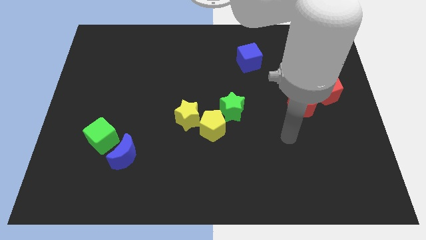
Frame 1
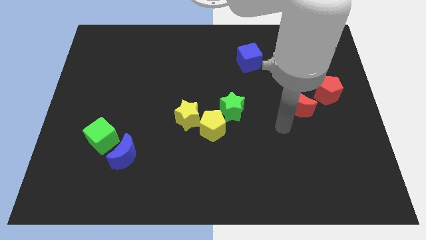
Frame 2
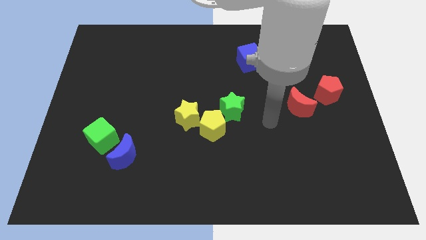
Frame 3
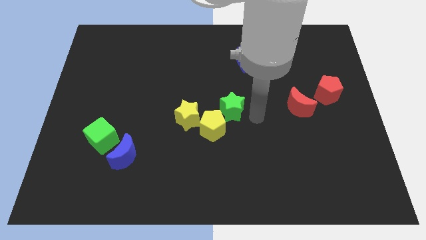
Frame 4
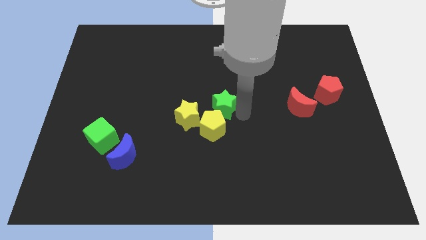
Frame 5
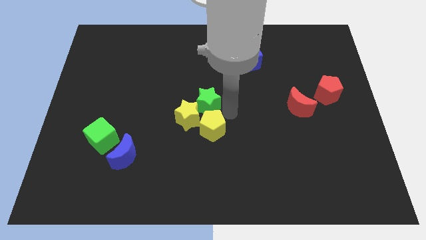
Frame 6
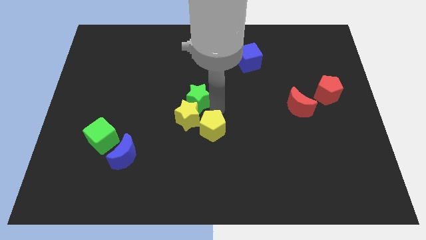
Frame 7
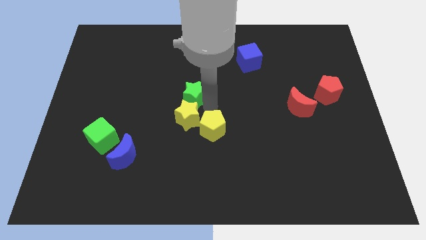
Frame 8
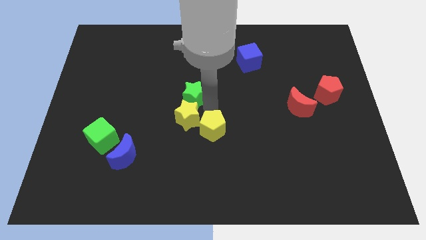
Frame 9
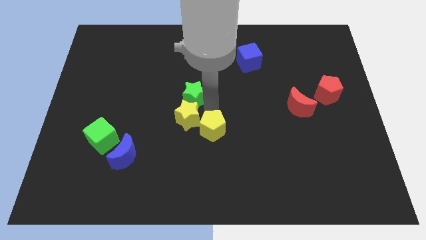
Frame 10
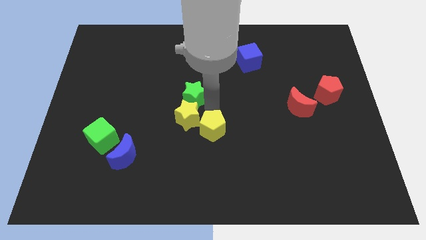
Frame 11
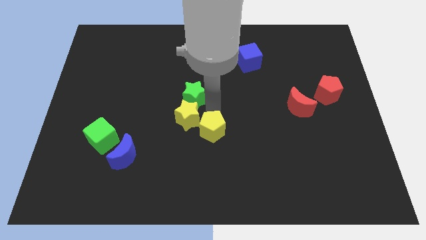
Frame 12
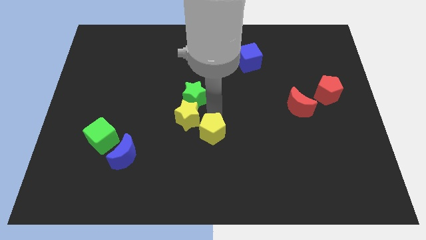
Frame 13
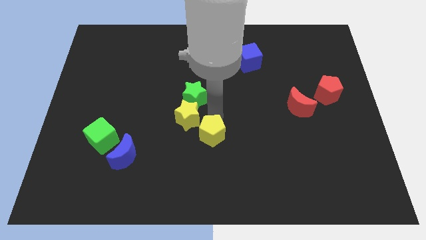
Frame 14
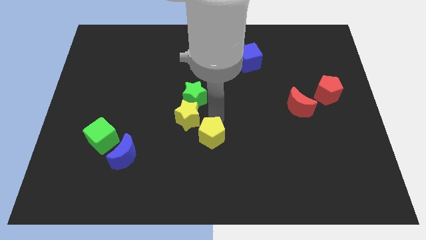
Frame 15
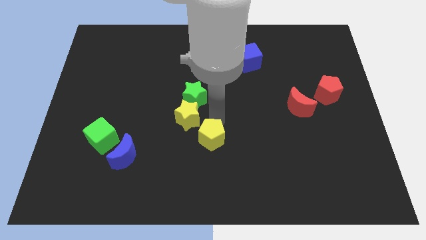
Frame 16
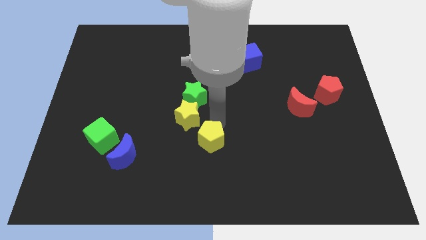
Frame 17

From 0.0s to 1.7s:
move the yellow pentagon away from the yellow star and green star

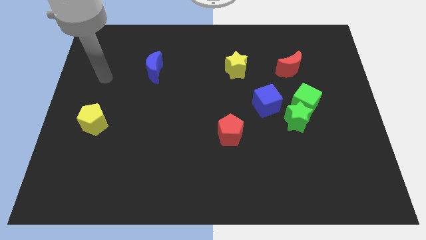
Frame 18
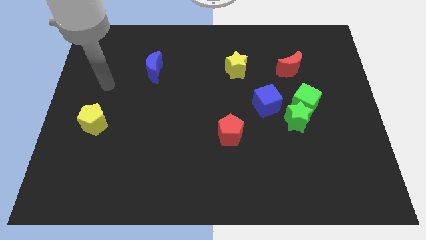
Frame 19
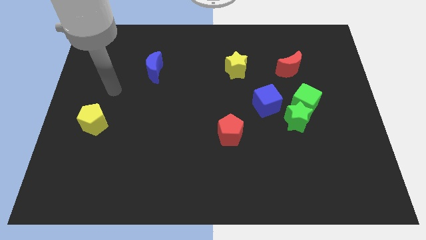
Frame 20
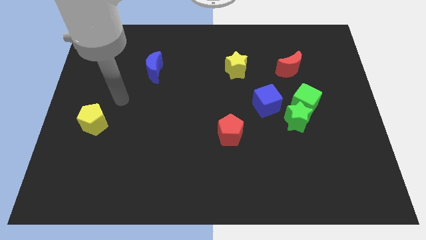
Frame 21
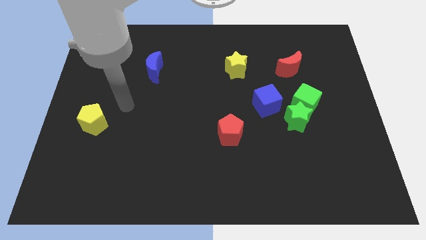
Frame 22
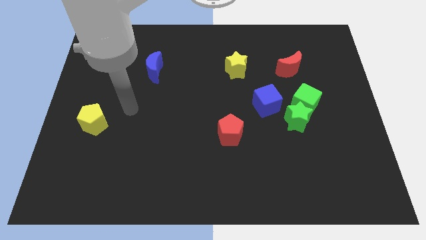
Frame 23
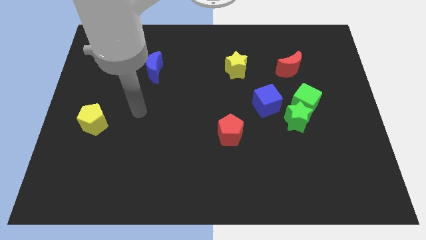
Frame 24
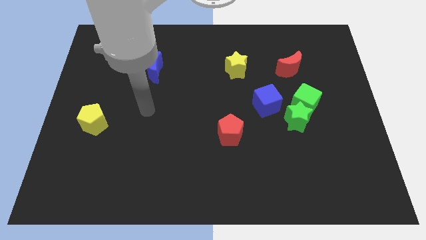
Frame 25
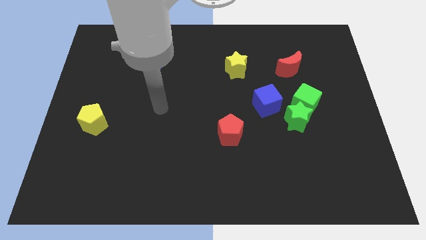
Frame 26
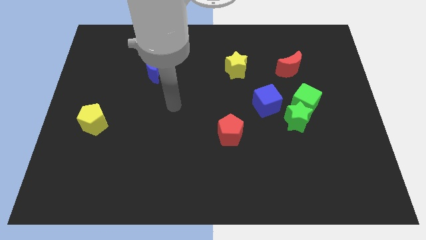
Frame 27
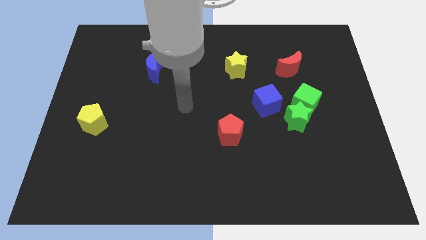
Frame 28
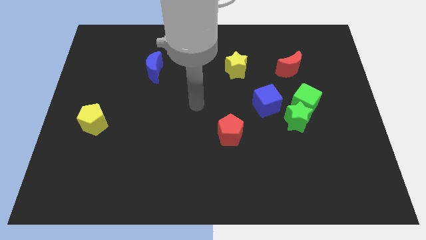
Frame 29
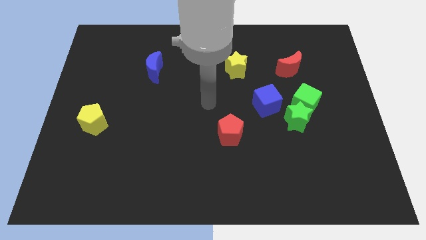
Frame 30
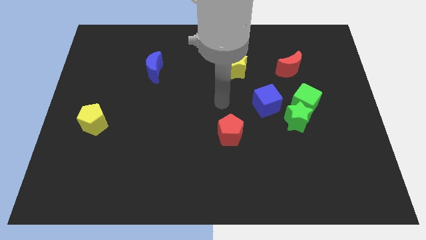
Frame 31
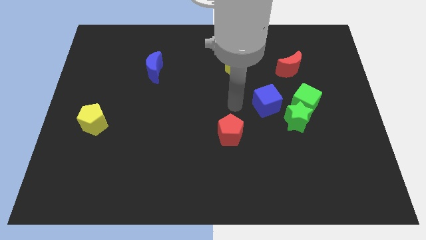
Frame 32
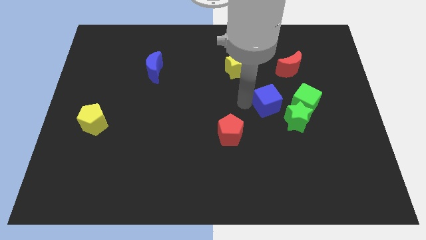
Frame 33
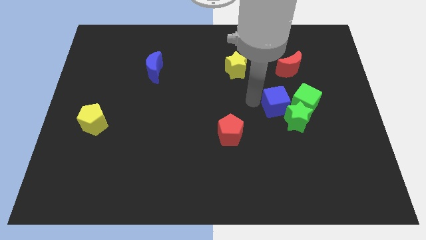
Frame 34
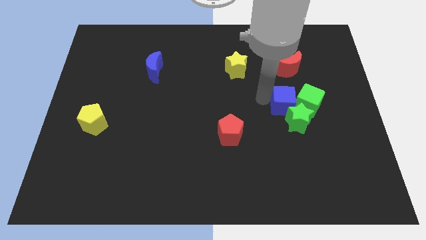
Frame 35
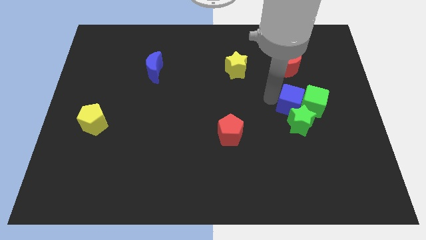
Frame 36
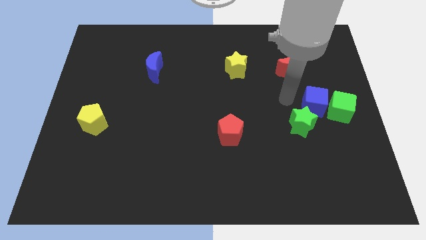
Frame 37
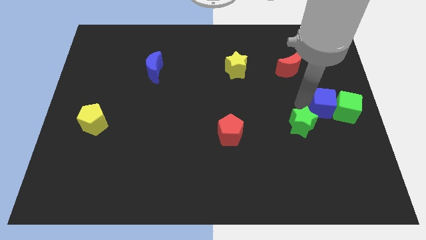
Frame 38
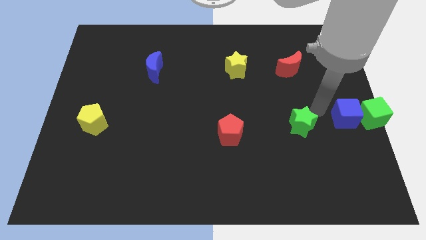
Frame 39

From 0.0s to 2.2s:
pull the green star apart from the green cube and blue cube

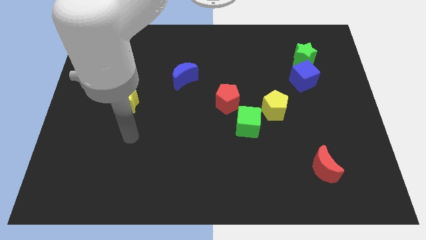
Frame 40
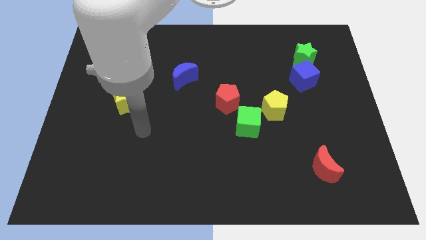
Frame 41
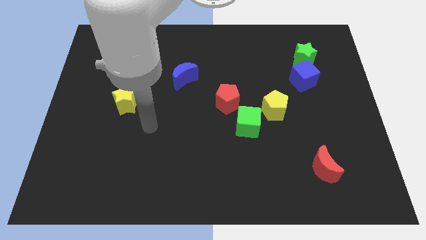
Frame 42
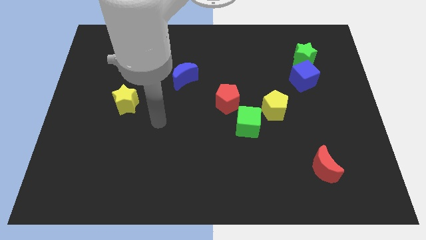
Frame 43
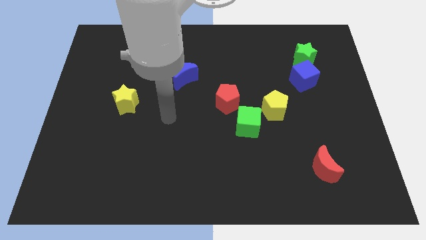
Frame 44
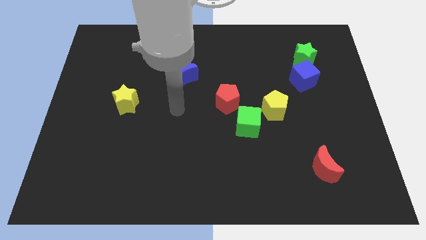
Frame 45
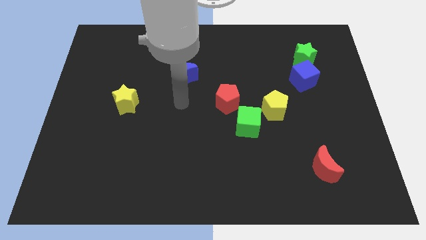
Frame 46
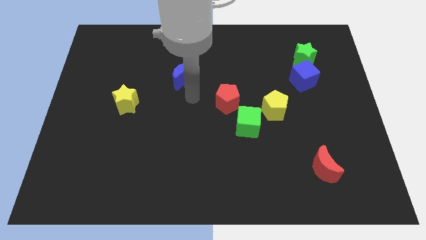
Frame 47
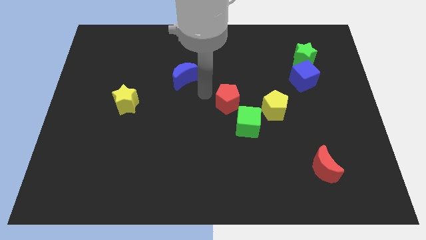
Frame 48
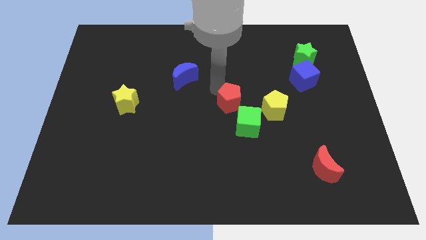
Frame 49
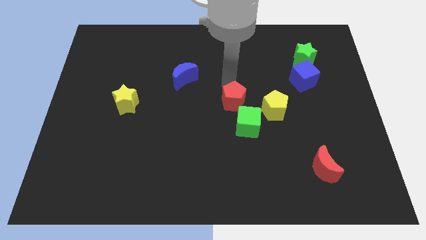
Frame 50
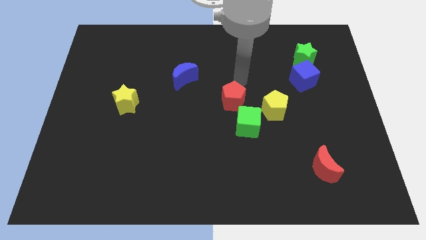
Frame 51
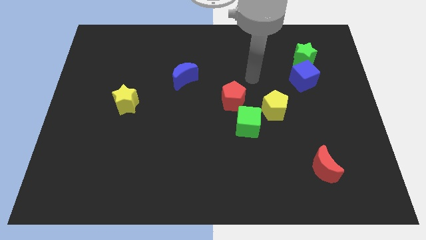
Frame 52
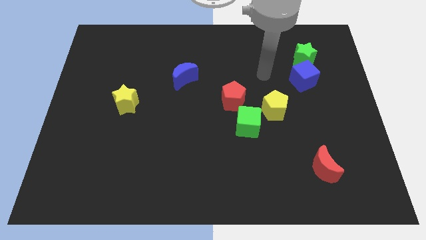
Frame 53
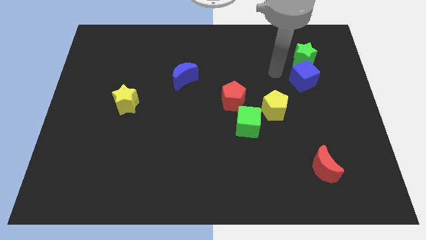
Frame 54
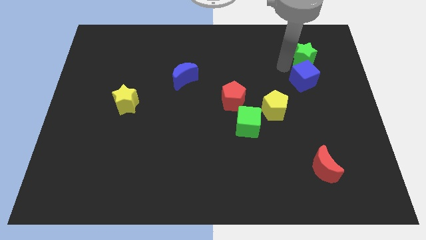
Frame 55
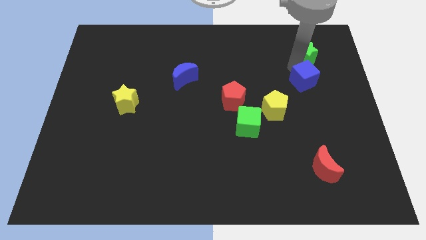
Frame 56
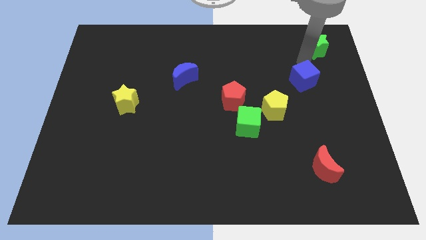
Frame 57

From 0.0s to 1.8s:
separate the blue cube from the green star

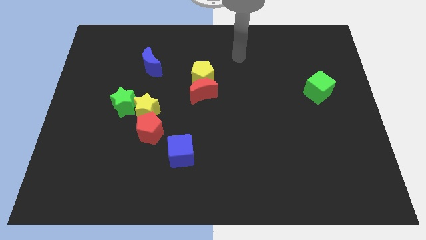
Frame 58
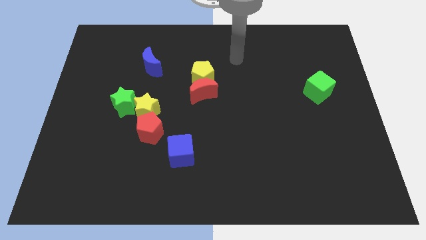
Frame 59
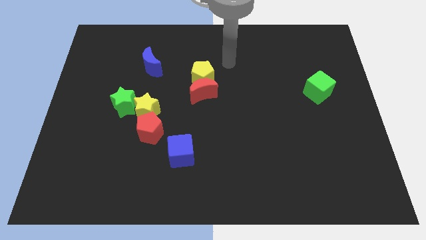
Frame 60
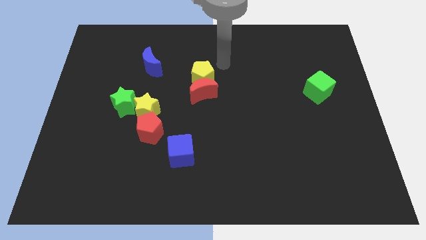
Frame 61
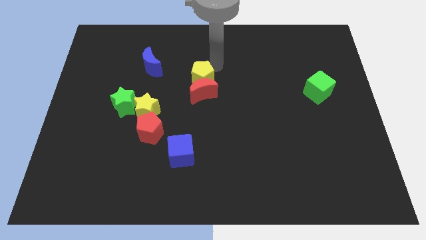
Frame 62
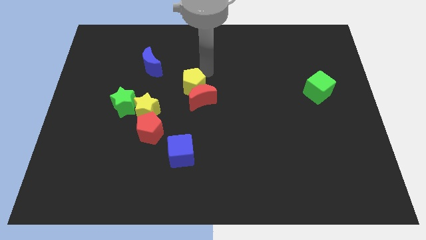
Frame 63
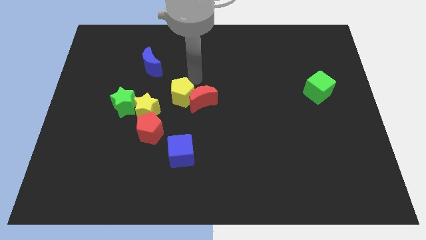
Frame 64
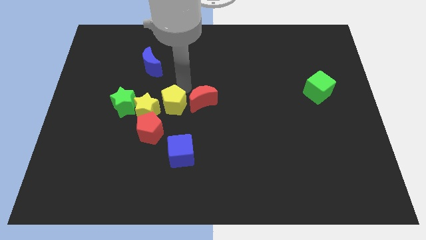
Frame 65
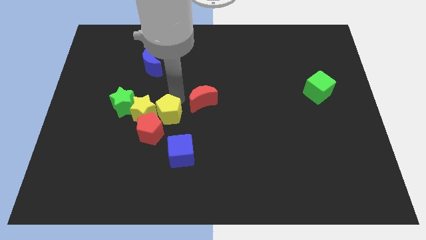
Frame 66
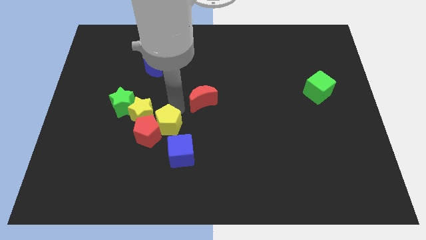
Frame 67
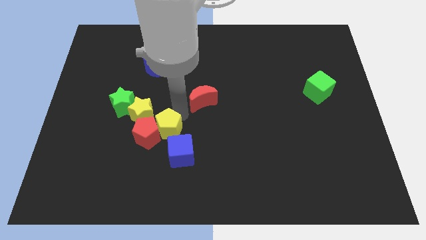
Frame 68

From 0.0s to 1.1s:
pull the red moon apart from the yellow pentagon

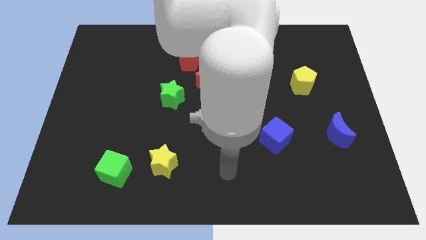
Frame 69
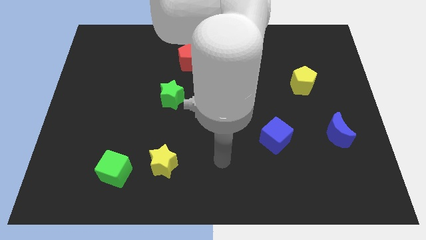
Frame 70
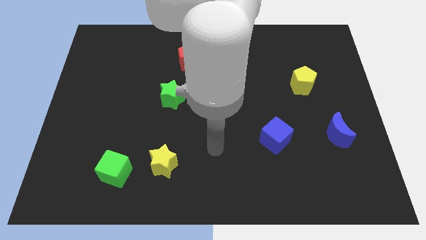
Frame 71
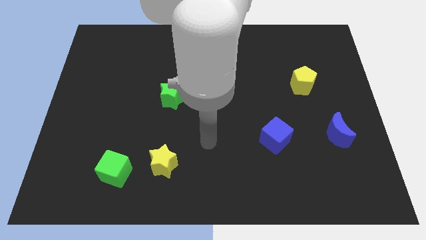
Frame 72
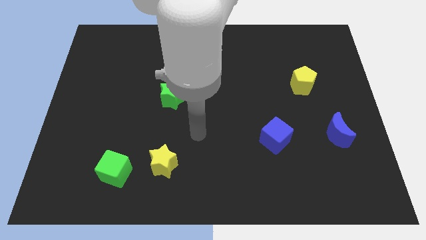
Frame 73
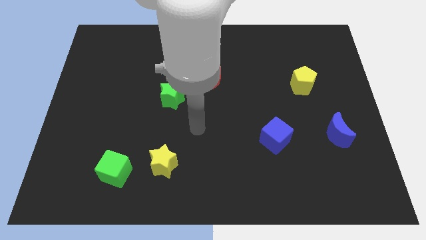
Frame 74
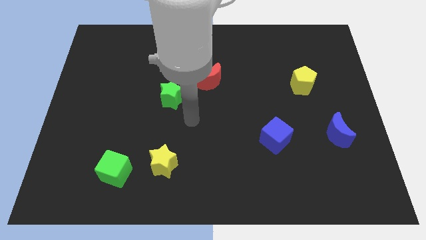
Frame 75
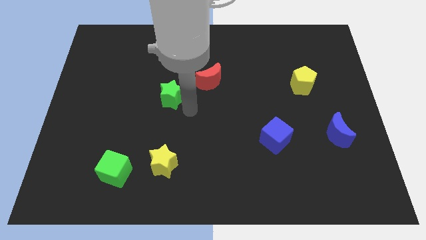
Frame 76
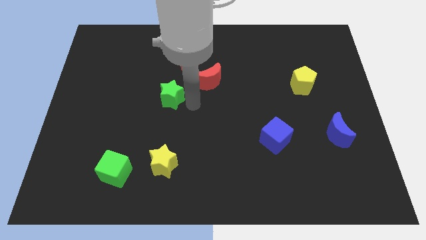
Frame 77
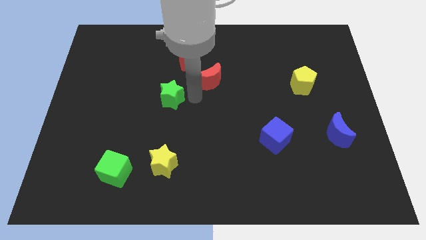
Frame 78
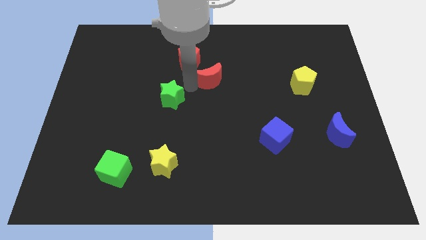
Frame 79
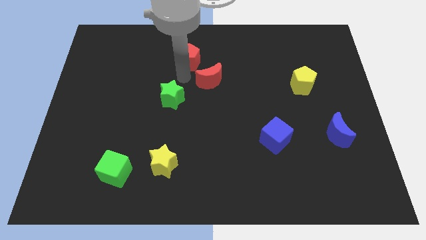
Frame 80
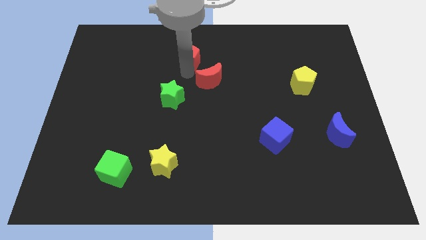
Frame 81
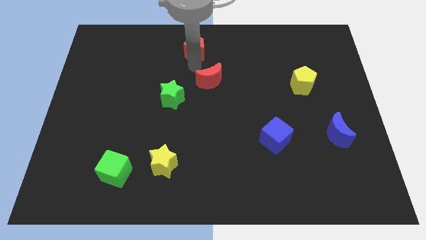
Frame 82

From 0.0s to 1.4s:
pull the red moon apart from the red pentagon

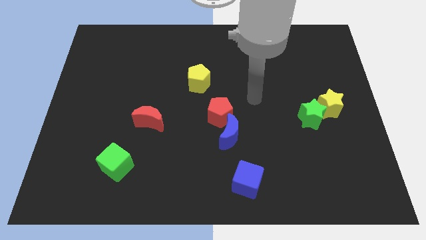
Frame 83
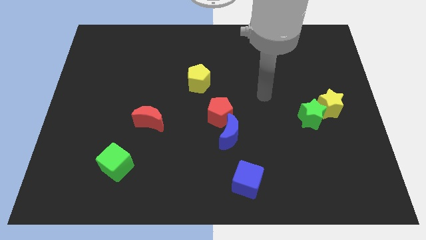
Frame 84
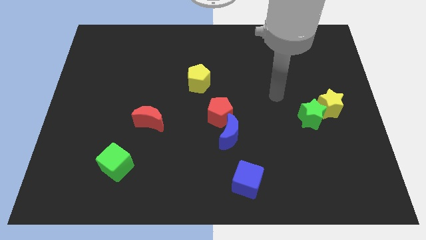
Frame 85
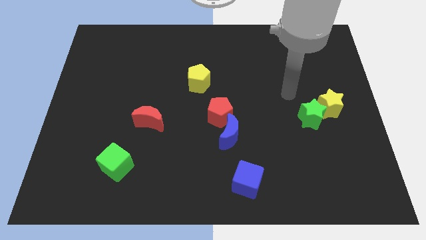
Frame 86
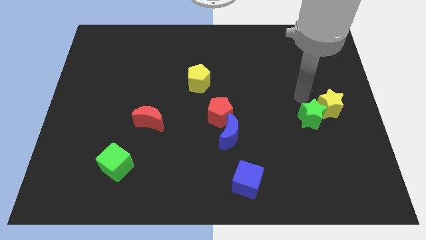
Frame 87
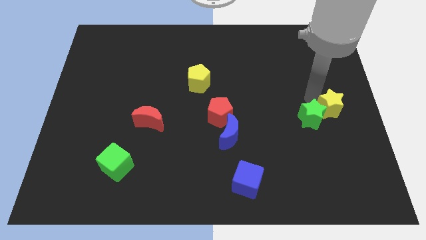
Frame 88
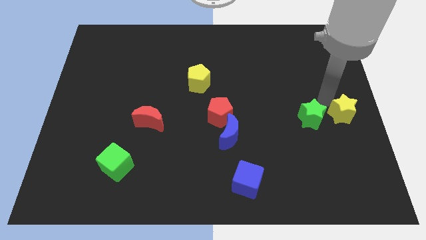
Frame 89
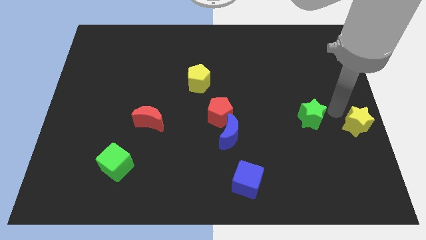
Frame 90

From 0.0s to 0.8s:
pull the green star apart from the yellow star

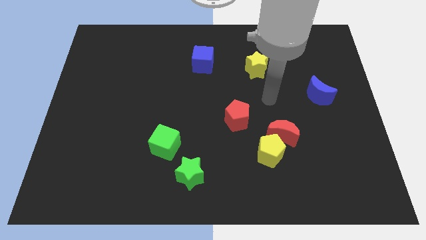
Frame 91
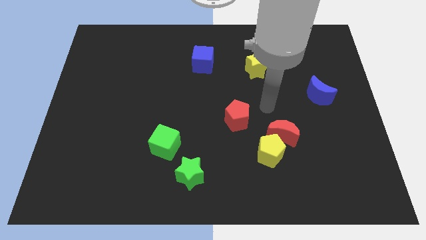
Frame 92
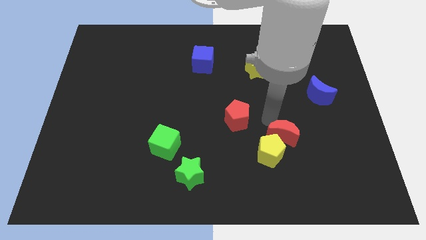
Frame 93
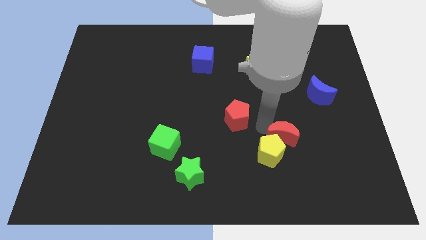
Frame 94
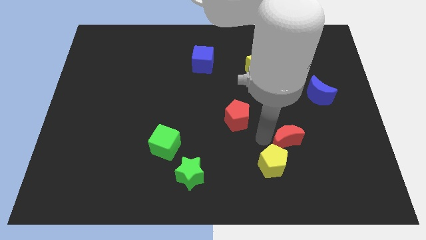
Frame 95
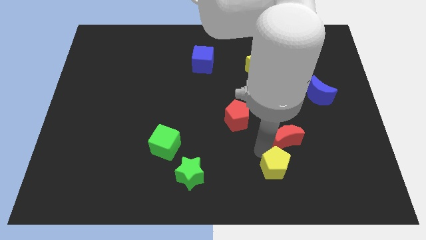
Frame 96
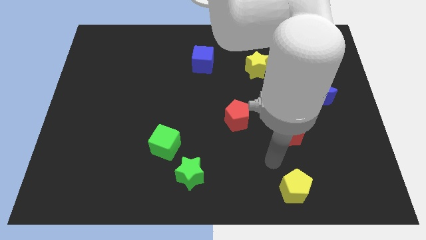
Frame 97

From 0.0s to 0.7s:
separate the red moon from the yellow pentagon
